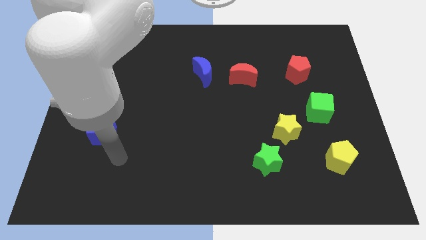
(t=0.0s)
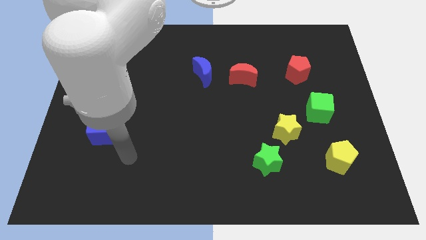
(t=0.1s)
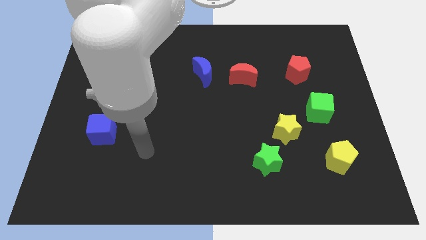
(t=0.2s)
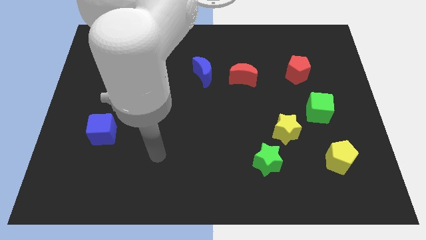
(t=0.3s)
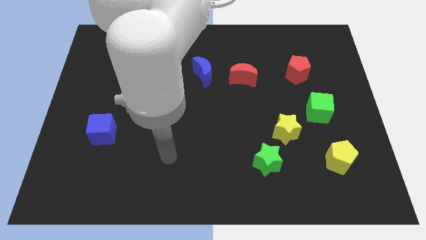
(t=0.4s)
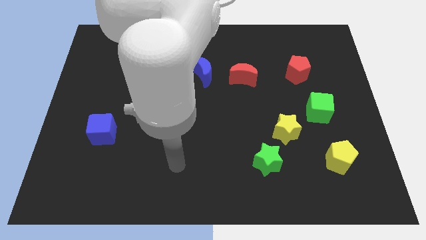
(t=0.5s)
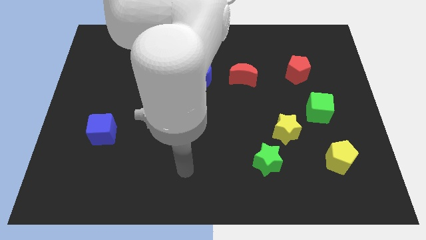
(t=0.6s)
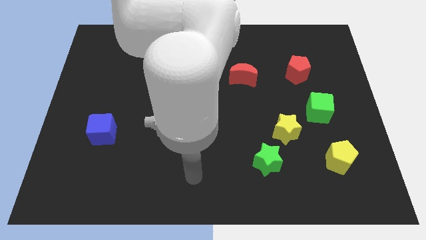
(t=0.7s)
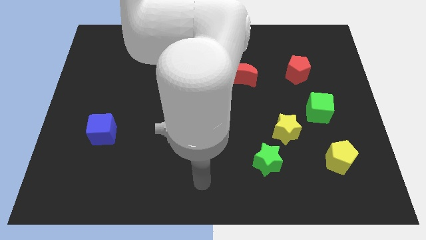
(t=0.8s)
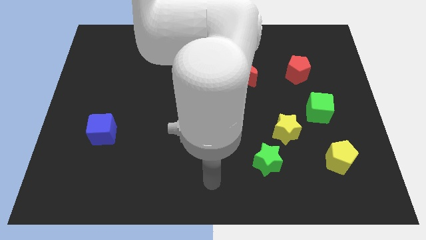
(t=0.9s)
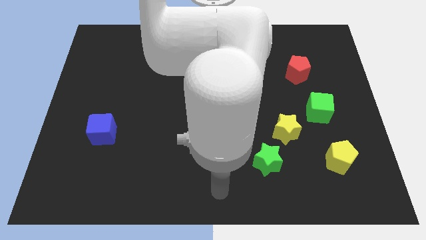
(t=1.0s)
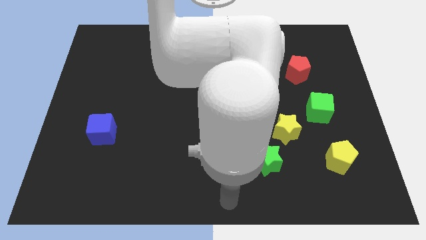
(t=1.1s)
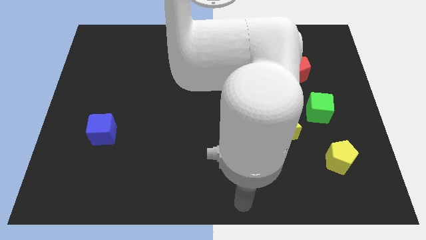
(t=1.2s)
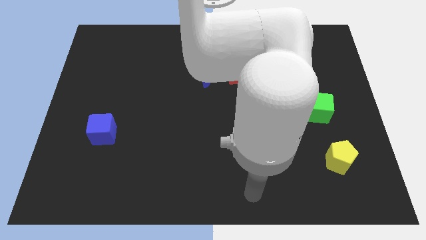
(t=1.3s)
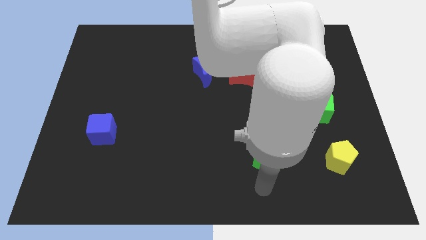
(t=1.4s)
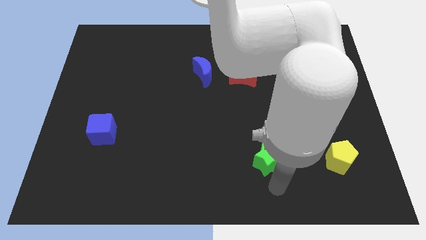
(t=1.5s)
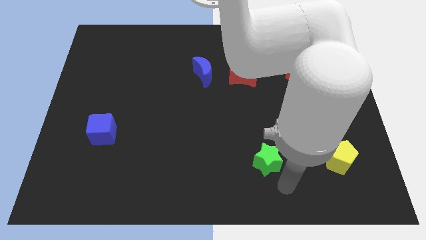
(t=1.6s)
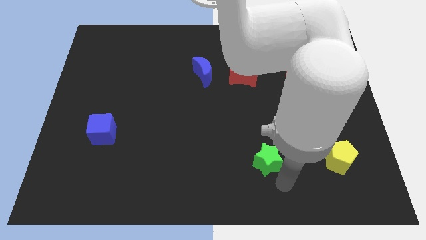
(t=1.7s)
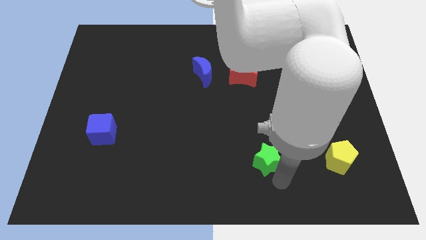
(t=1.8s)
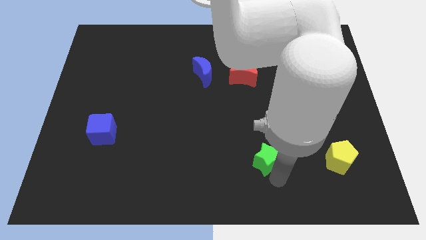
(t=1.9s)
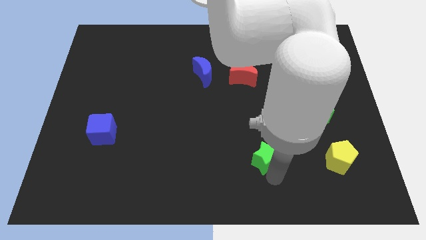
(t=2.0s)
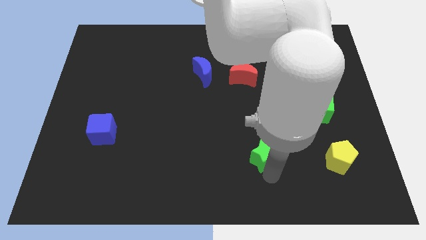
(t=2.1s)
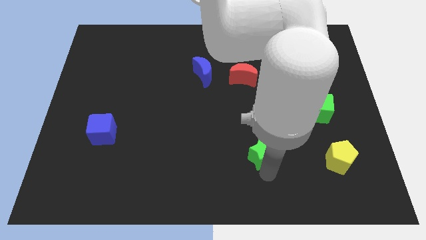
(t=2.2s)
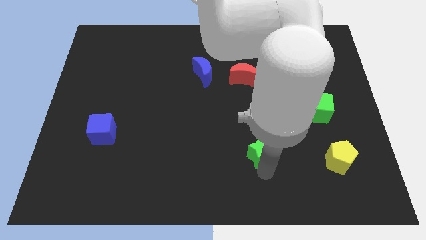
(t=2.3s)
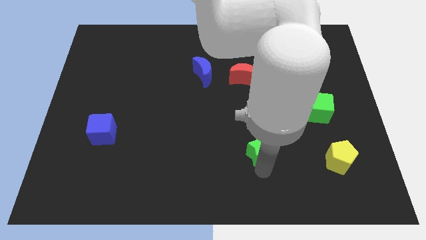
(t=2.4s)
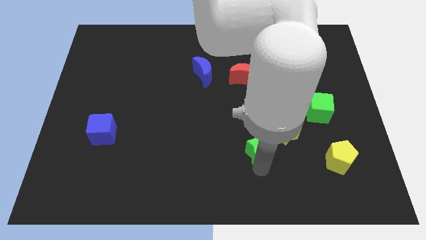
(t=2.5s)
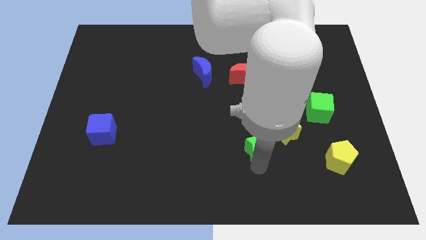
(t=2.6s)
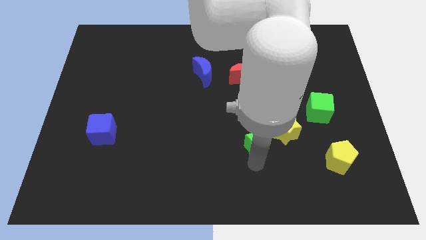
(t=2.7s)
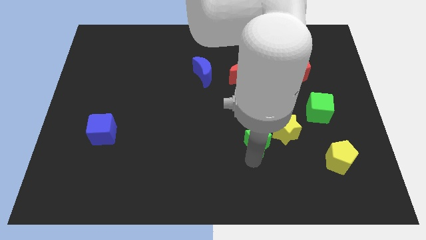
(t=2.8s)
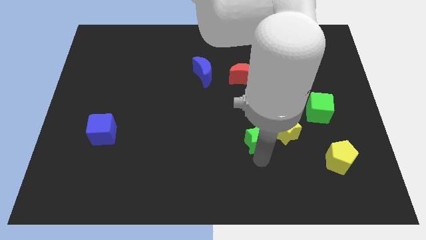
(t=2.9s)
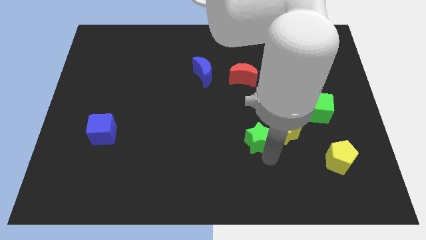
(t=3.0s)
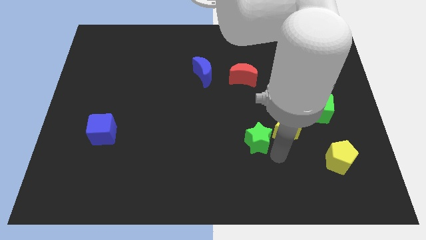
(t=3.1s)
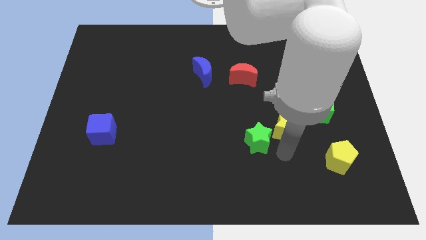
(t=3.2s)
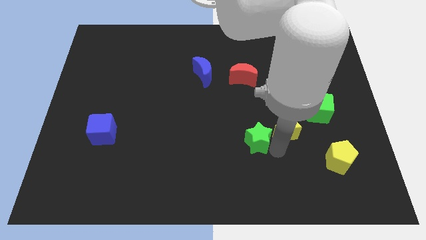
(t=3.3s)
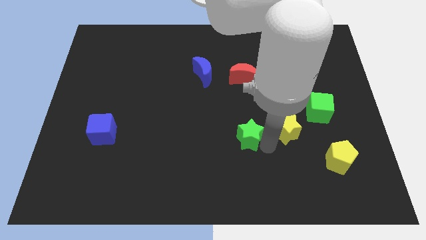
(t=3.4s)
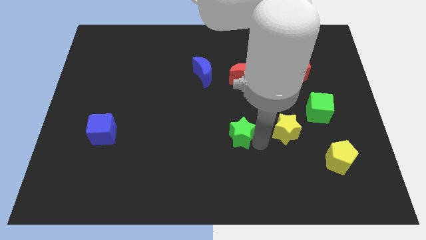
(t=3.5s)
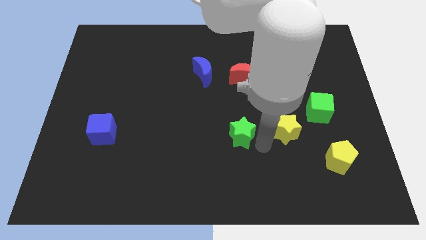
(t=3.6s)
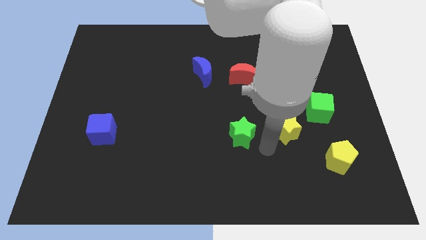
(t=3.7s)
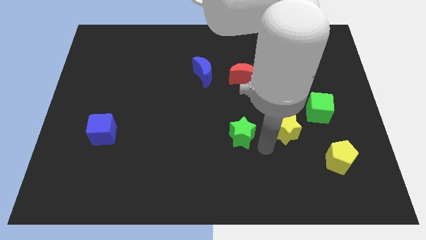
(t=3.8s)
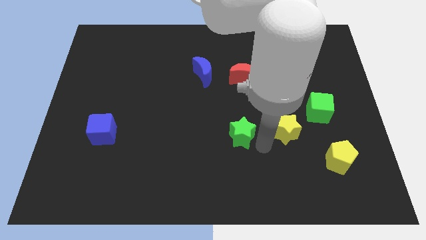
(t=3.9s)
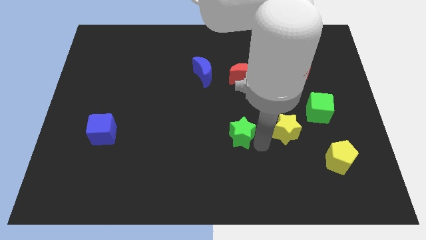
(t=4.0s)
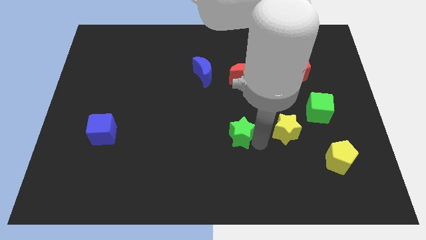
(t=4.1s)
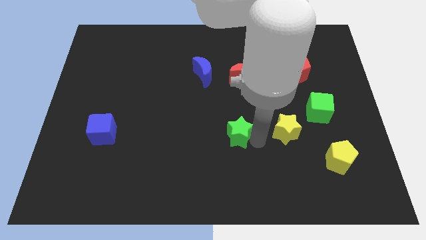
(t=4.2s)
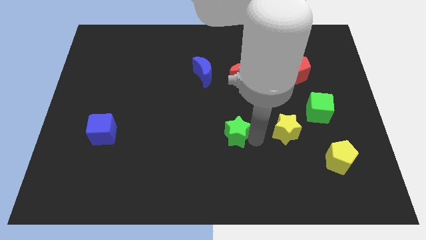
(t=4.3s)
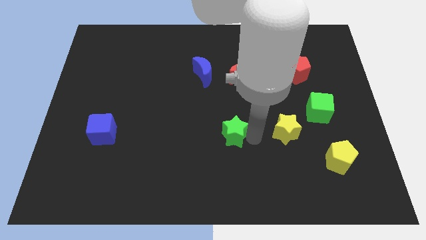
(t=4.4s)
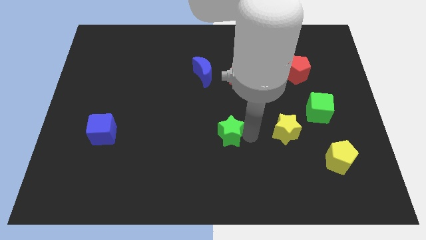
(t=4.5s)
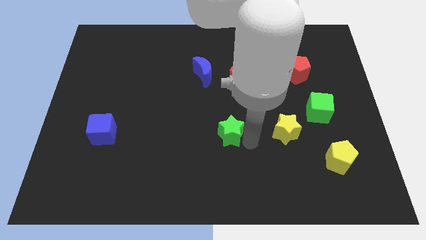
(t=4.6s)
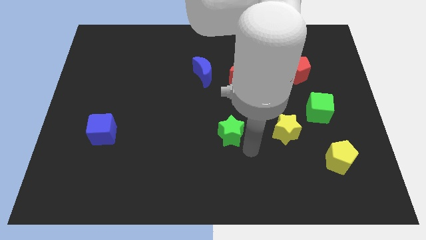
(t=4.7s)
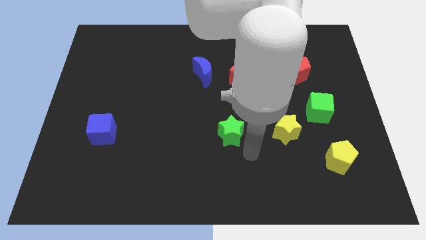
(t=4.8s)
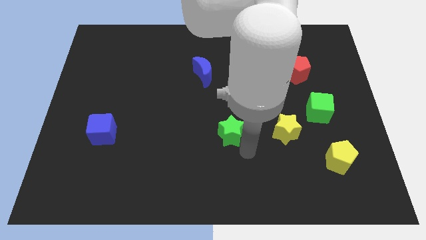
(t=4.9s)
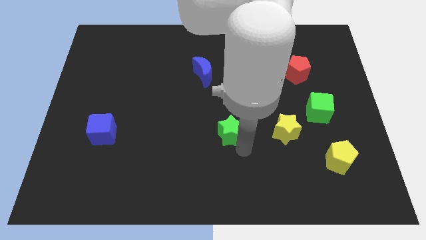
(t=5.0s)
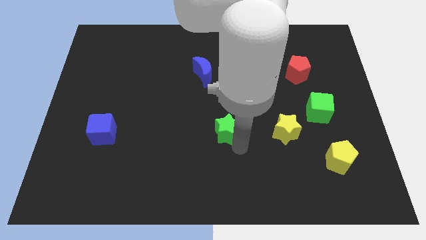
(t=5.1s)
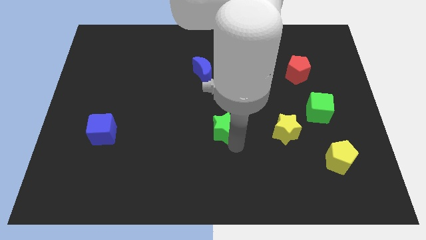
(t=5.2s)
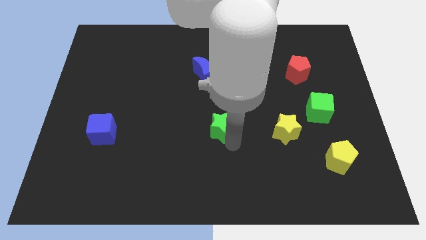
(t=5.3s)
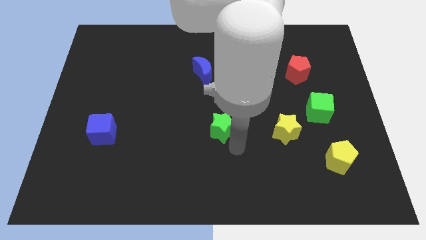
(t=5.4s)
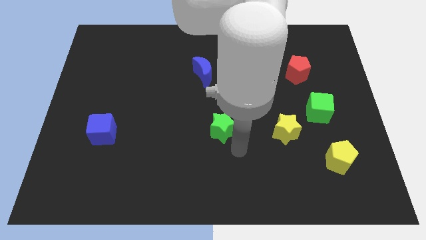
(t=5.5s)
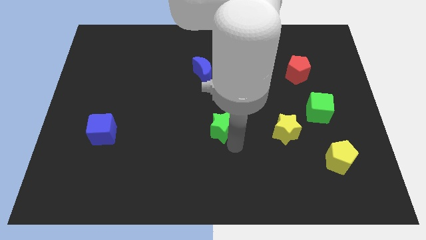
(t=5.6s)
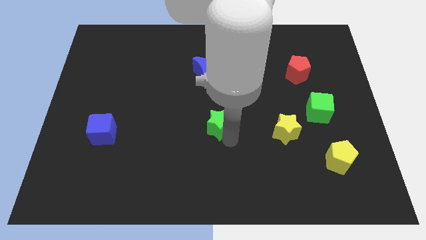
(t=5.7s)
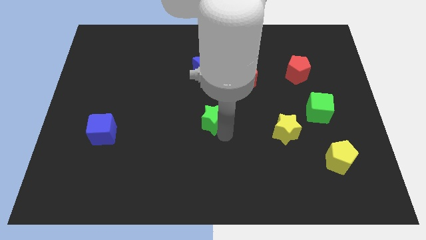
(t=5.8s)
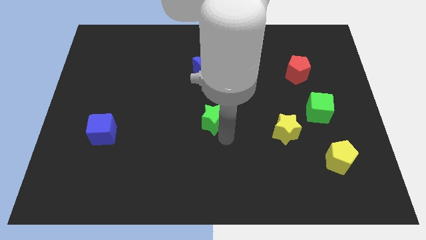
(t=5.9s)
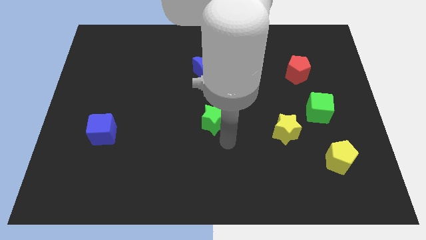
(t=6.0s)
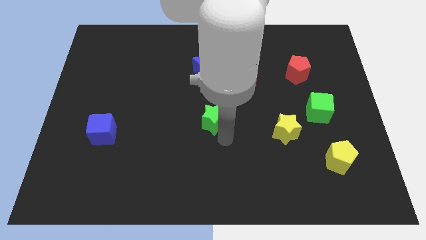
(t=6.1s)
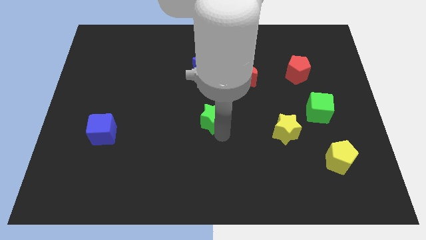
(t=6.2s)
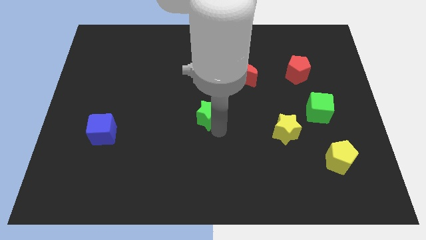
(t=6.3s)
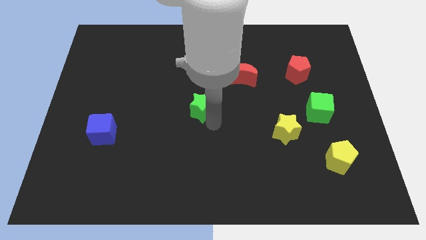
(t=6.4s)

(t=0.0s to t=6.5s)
move the green star up and to the left diagonally

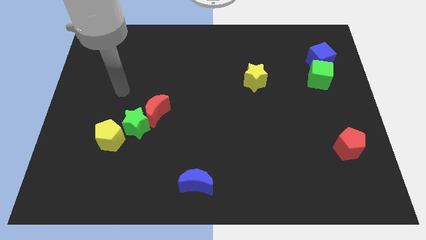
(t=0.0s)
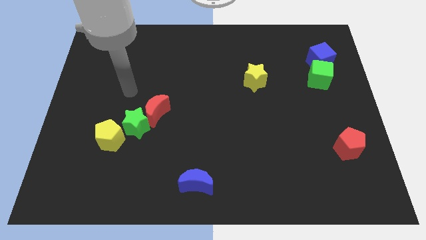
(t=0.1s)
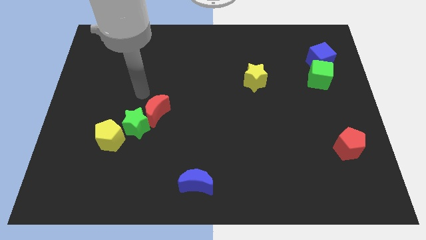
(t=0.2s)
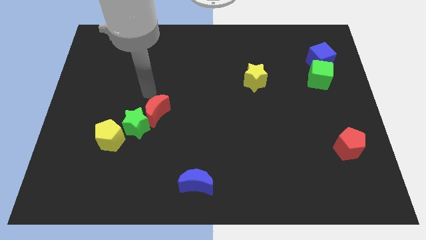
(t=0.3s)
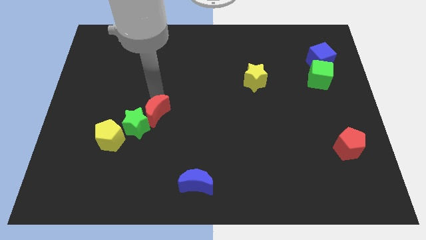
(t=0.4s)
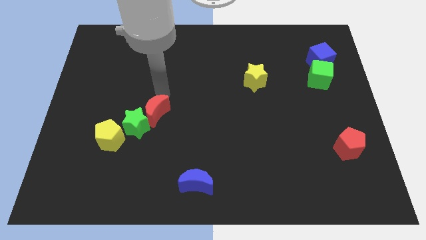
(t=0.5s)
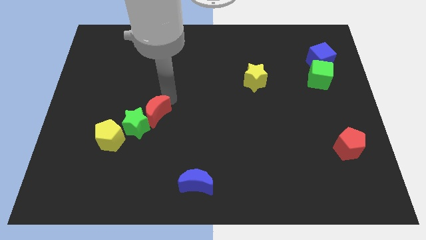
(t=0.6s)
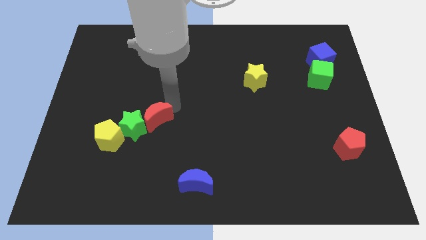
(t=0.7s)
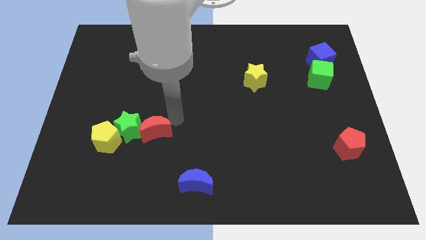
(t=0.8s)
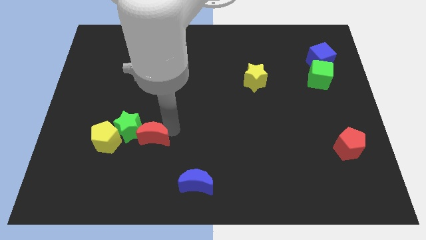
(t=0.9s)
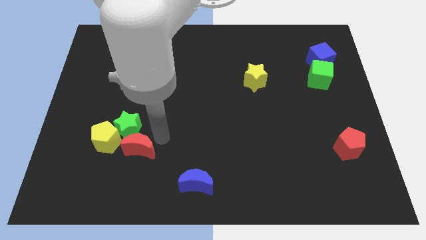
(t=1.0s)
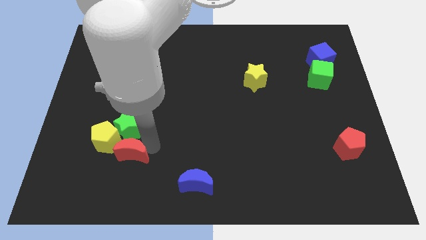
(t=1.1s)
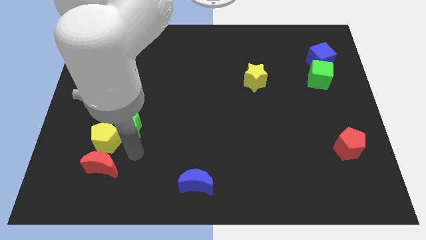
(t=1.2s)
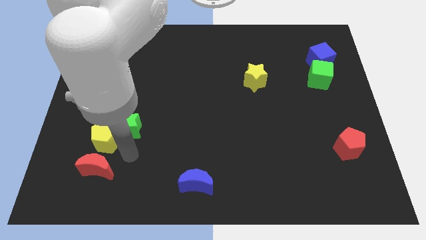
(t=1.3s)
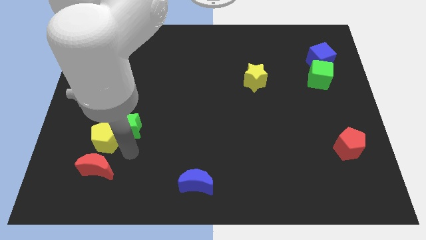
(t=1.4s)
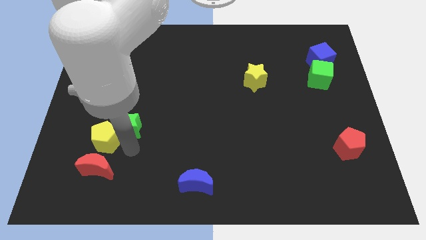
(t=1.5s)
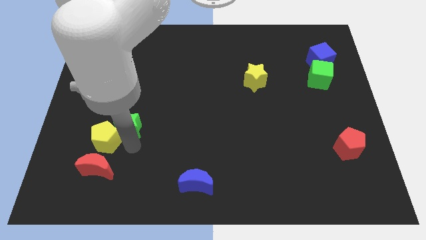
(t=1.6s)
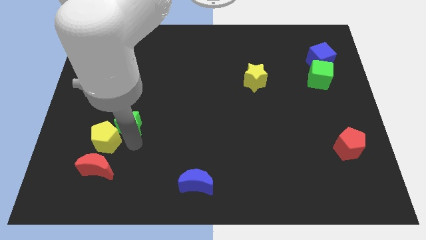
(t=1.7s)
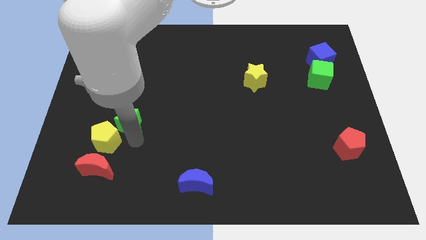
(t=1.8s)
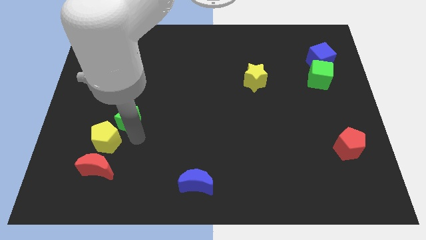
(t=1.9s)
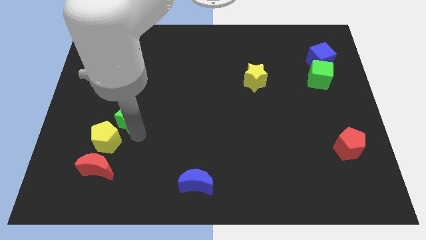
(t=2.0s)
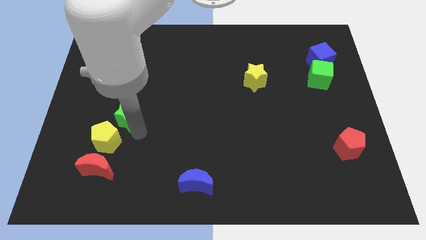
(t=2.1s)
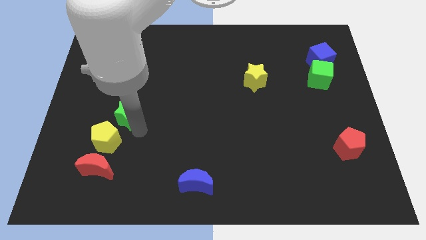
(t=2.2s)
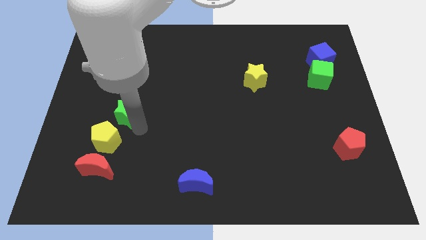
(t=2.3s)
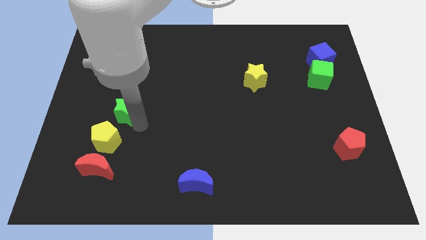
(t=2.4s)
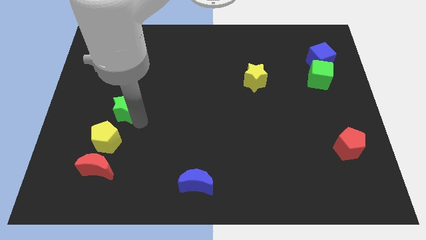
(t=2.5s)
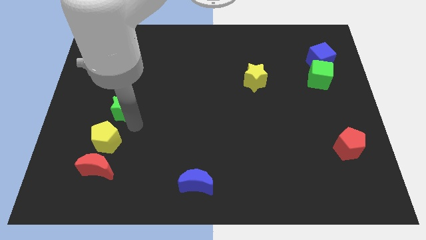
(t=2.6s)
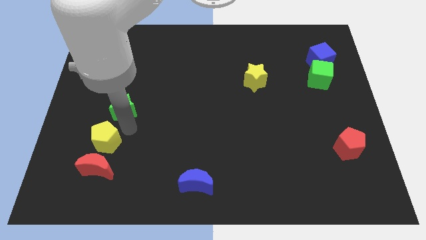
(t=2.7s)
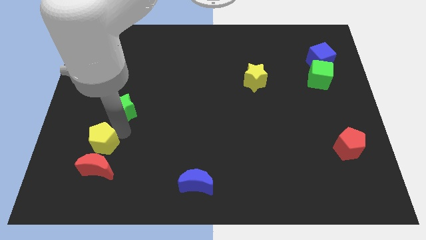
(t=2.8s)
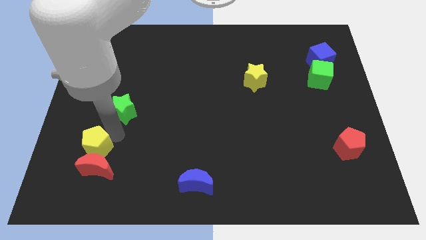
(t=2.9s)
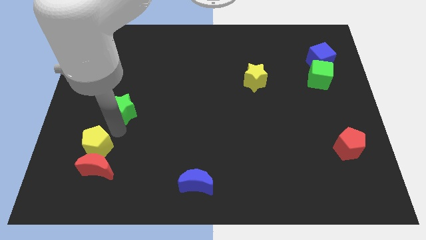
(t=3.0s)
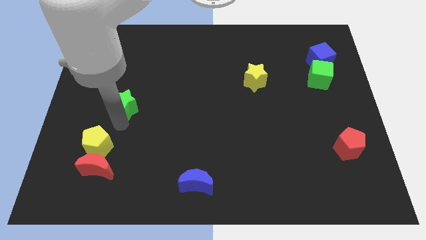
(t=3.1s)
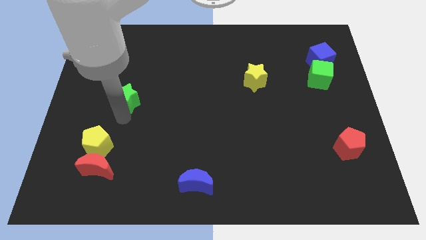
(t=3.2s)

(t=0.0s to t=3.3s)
push the green star upwards slightly
